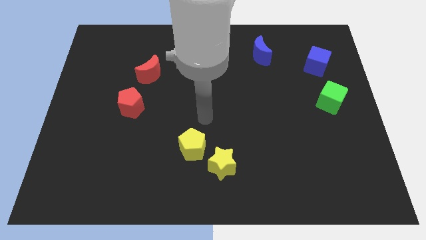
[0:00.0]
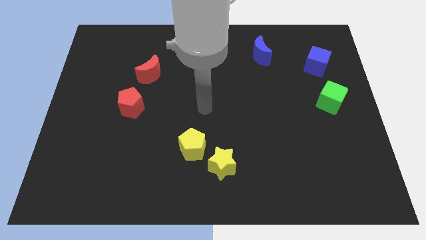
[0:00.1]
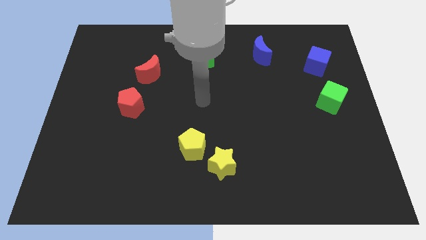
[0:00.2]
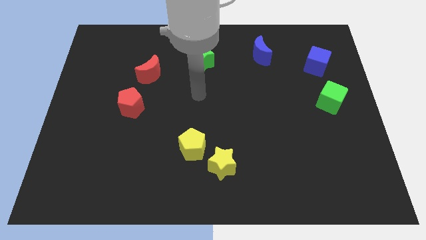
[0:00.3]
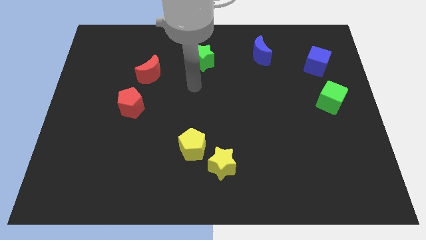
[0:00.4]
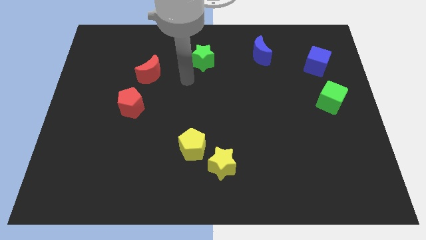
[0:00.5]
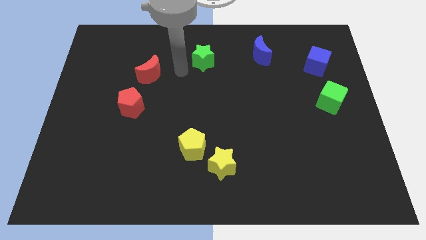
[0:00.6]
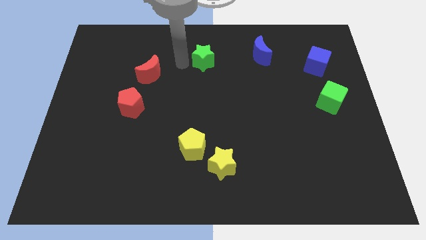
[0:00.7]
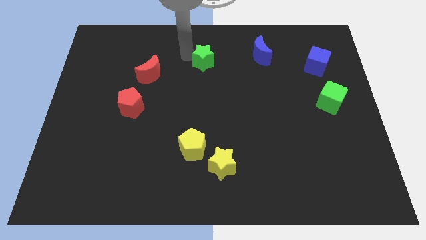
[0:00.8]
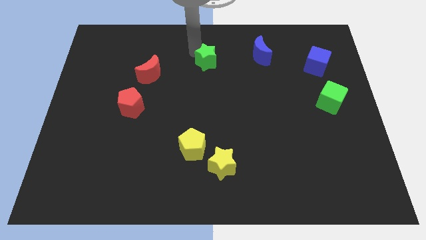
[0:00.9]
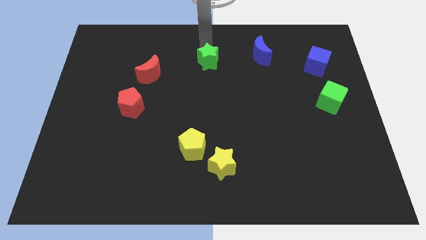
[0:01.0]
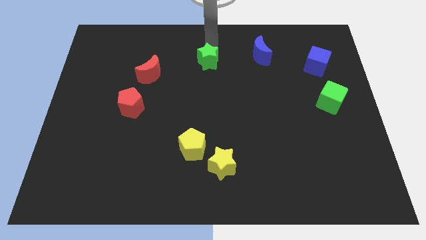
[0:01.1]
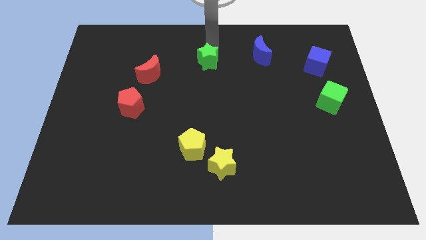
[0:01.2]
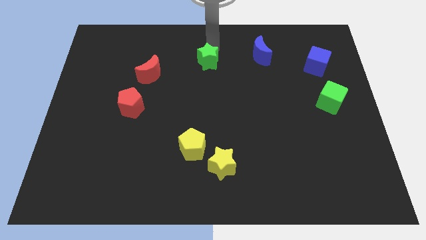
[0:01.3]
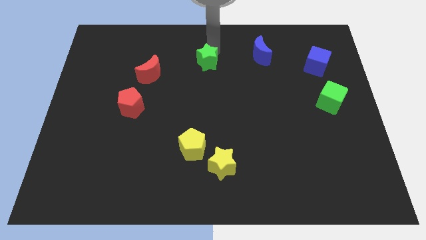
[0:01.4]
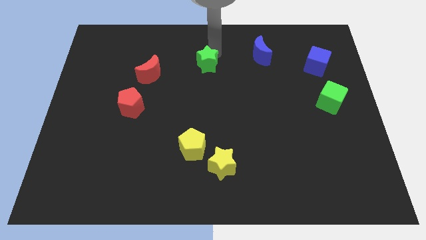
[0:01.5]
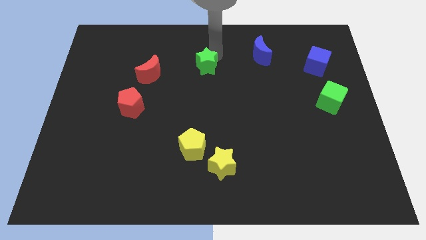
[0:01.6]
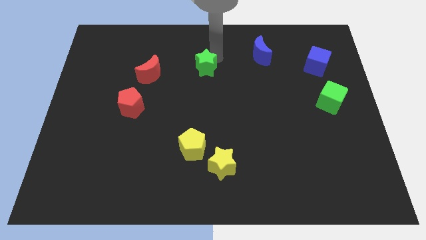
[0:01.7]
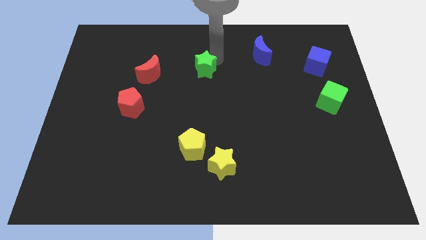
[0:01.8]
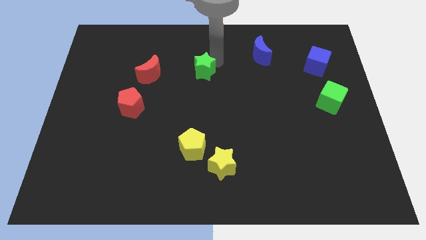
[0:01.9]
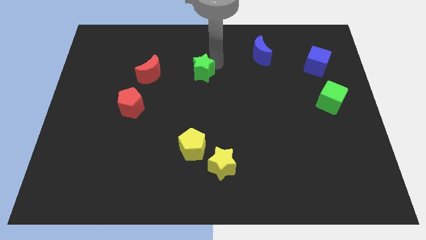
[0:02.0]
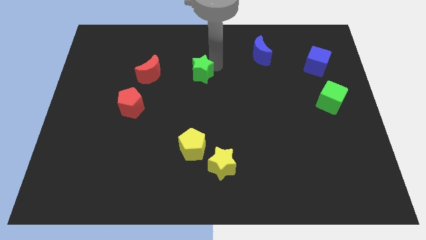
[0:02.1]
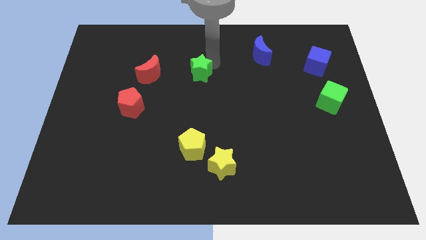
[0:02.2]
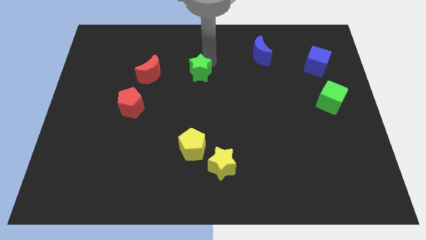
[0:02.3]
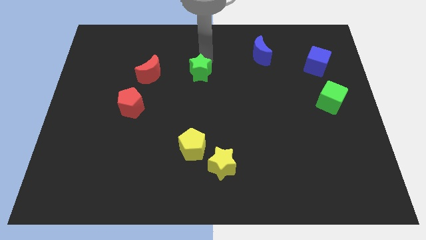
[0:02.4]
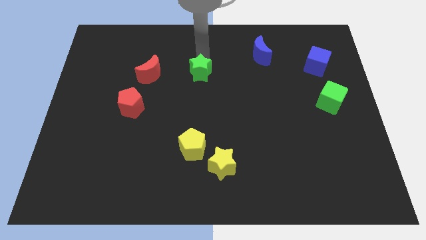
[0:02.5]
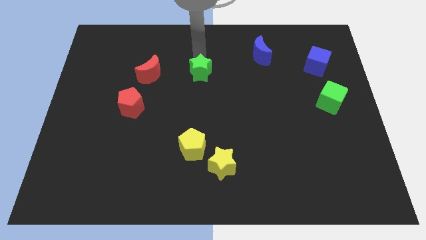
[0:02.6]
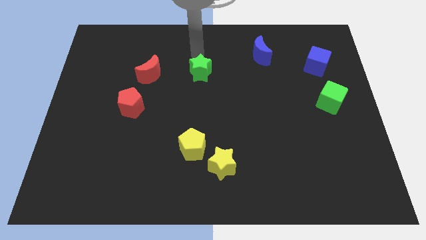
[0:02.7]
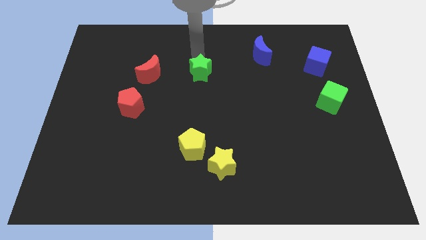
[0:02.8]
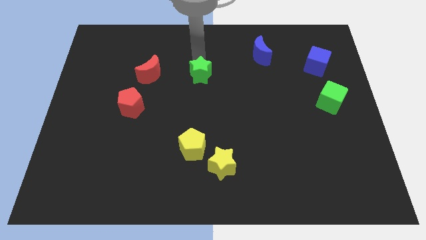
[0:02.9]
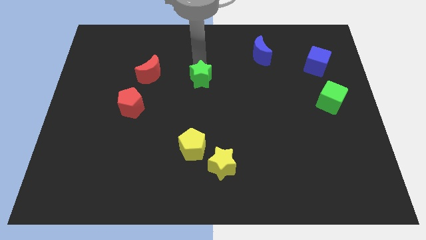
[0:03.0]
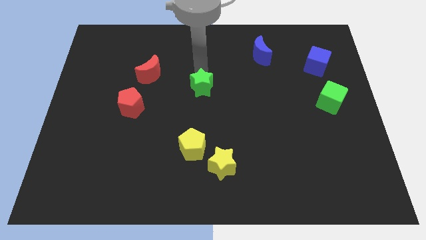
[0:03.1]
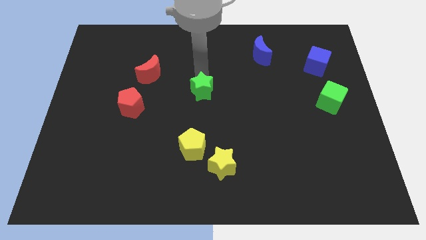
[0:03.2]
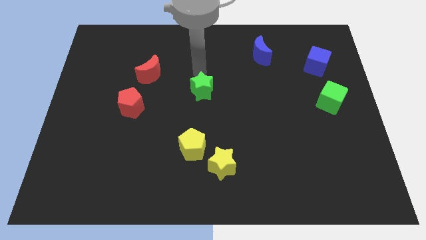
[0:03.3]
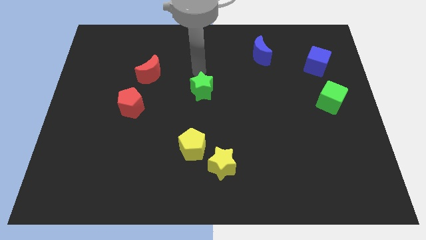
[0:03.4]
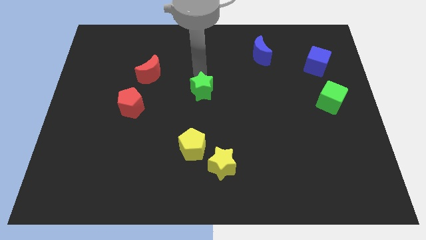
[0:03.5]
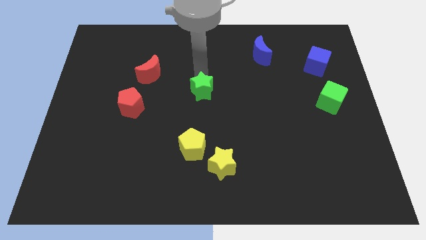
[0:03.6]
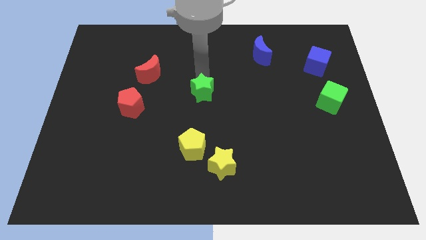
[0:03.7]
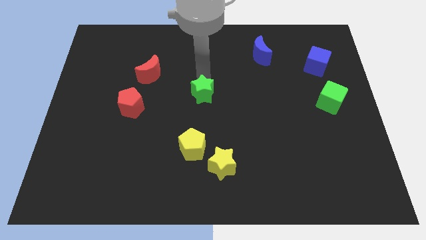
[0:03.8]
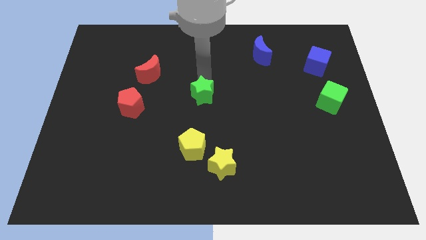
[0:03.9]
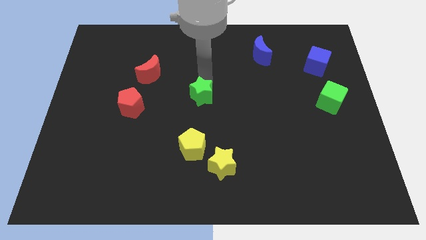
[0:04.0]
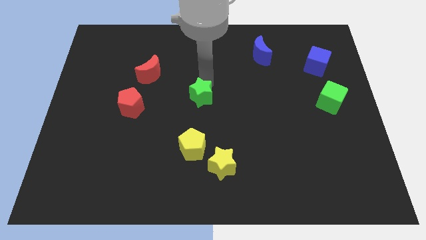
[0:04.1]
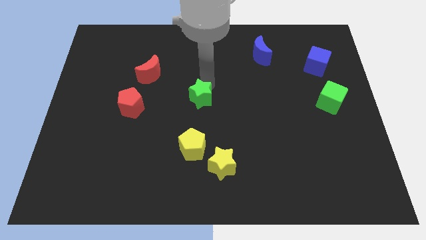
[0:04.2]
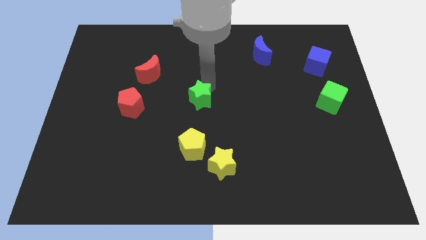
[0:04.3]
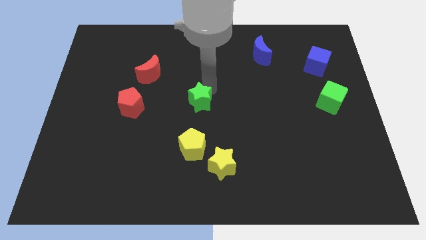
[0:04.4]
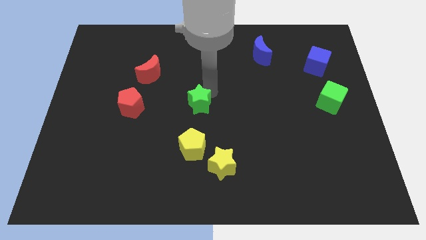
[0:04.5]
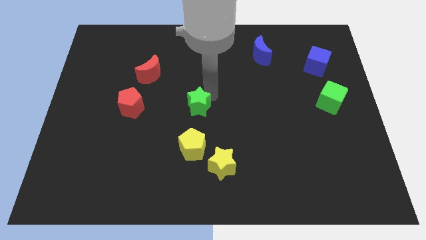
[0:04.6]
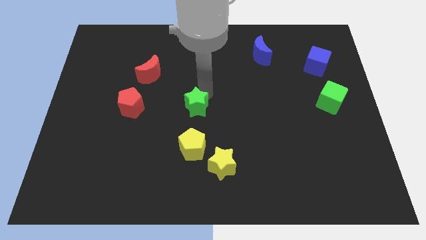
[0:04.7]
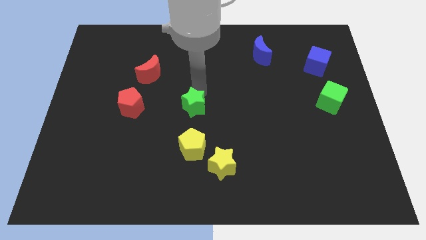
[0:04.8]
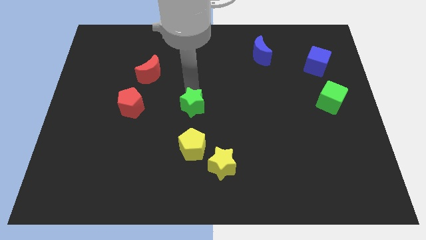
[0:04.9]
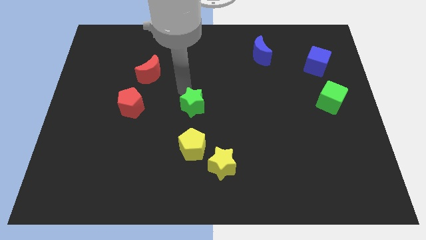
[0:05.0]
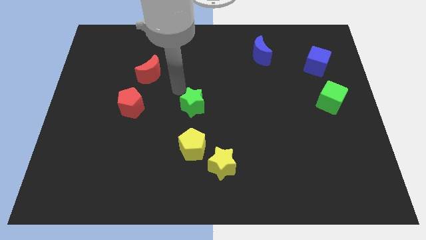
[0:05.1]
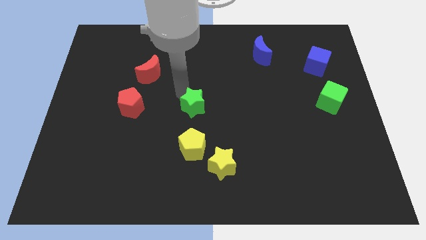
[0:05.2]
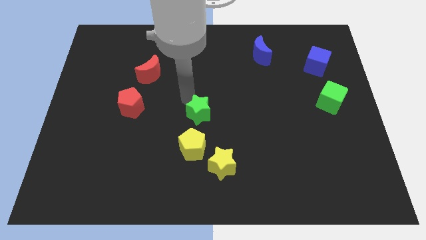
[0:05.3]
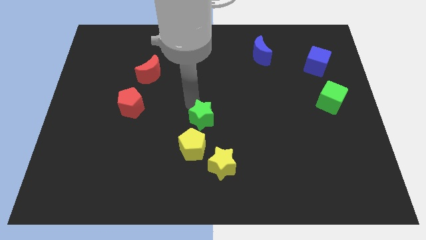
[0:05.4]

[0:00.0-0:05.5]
slide the green star to the top right side of the yellow pentagon

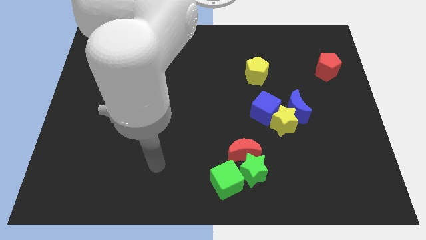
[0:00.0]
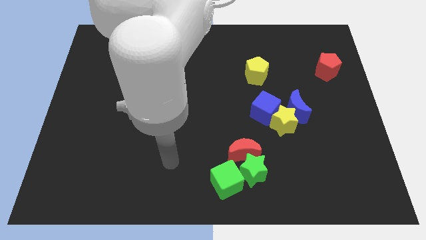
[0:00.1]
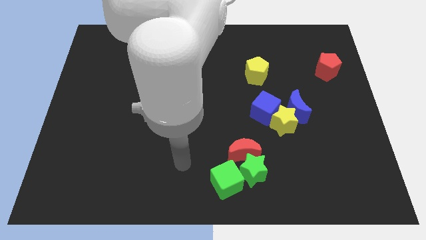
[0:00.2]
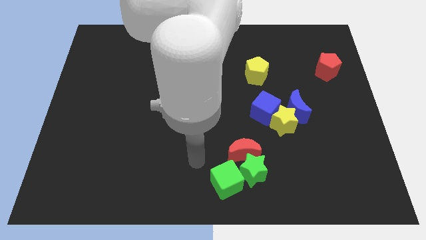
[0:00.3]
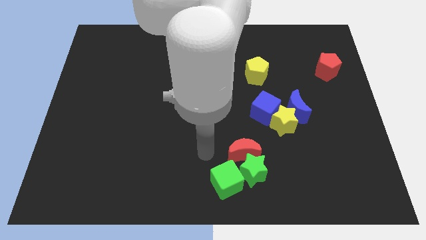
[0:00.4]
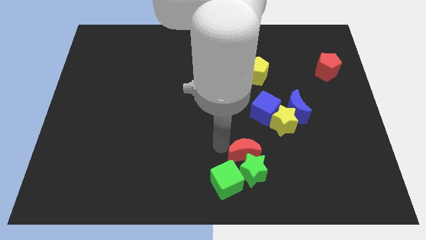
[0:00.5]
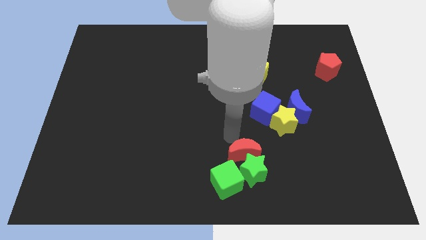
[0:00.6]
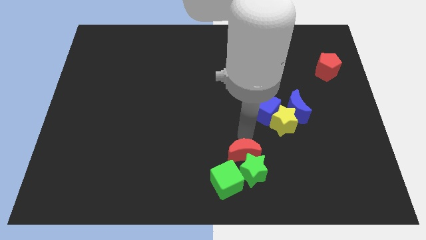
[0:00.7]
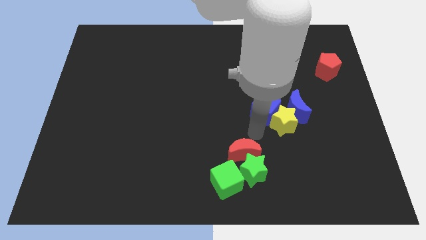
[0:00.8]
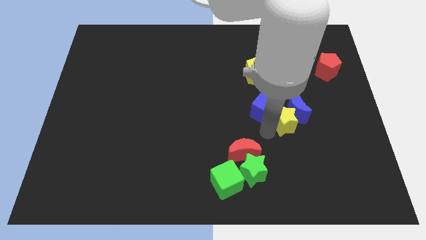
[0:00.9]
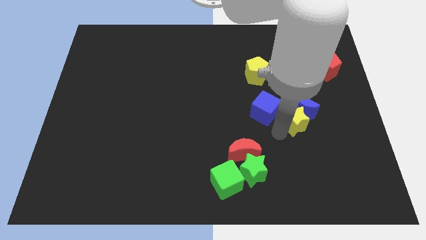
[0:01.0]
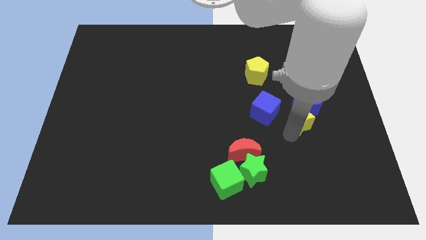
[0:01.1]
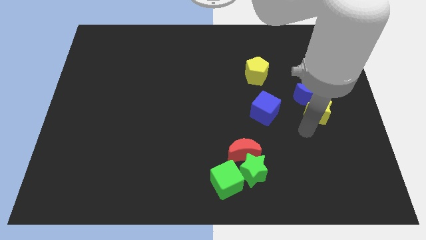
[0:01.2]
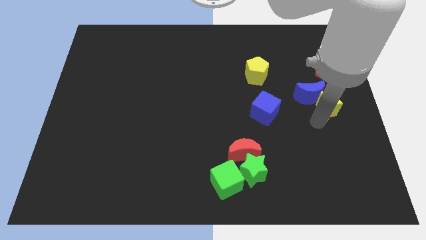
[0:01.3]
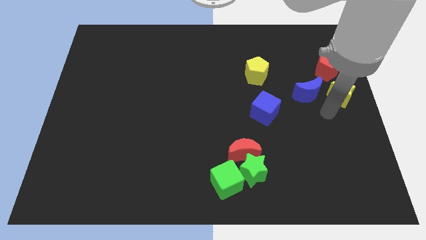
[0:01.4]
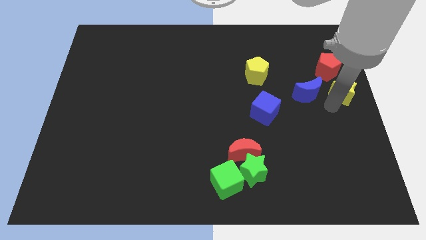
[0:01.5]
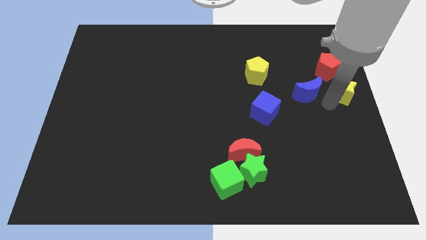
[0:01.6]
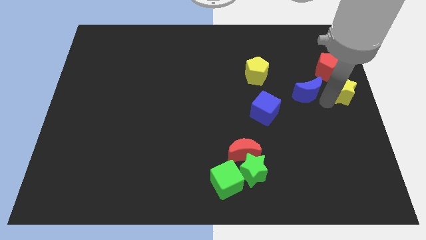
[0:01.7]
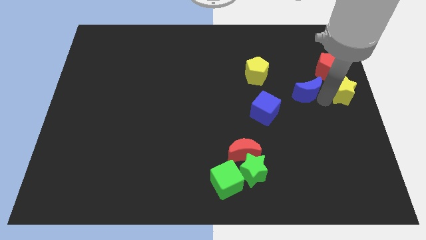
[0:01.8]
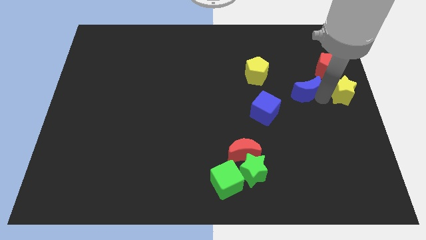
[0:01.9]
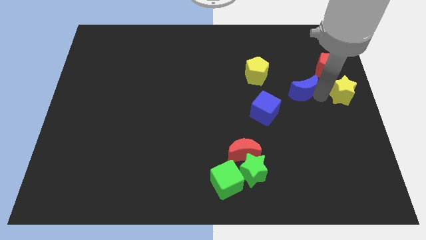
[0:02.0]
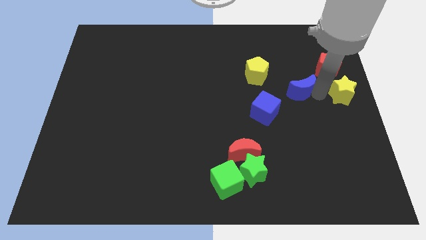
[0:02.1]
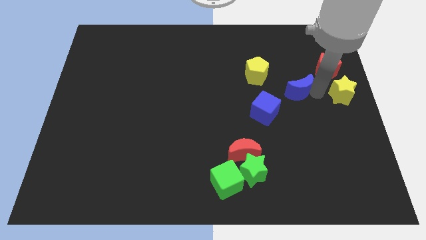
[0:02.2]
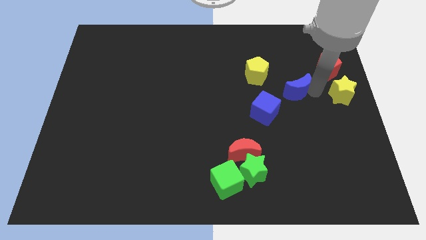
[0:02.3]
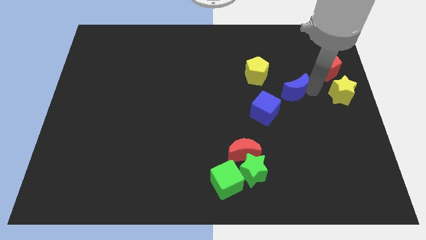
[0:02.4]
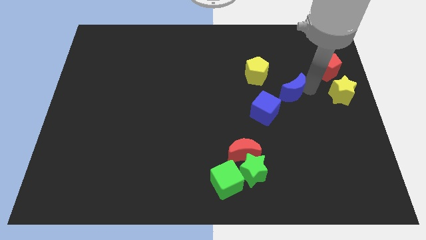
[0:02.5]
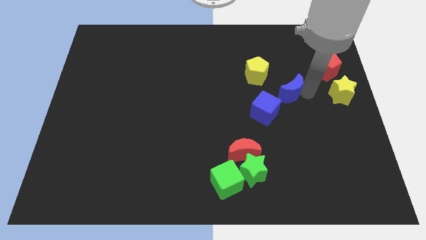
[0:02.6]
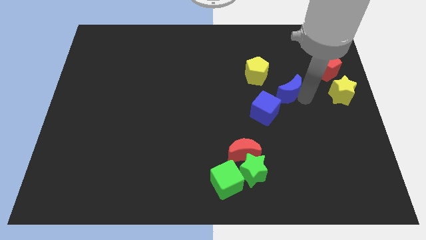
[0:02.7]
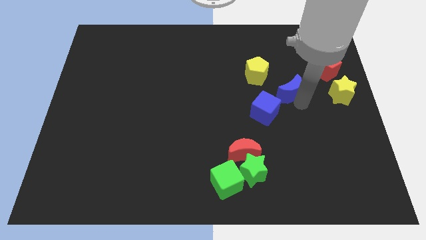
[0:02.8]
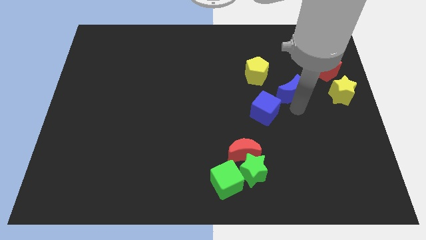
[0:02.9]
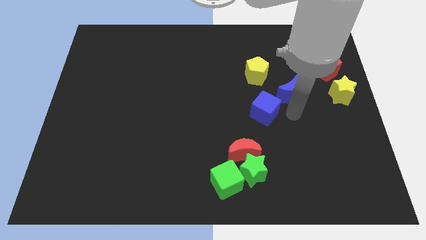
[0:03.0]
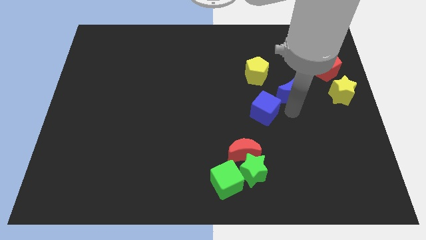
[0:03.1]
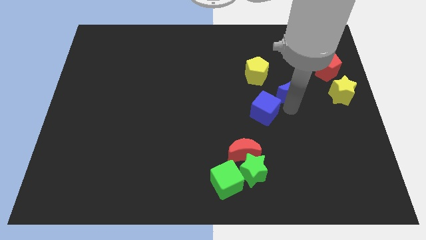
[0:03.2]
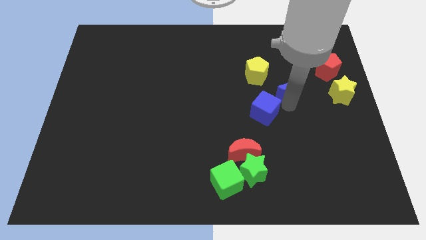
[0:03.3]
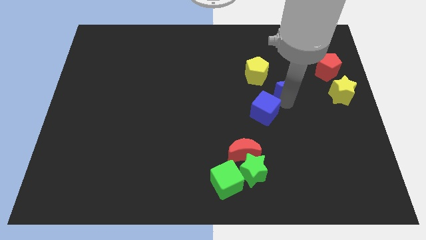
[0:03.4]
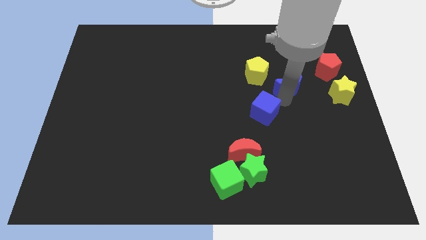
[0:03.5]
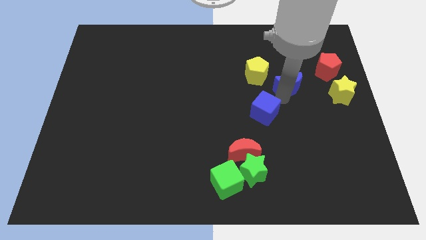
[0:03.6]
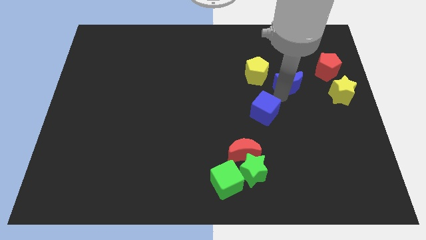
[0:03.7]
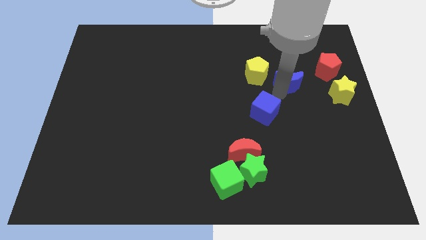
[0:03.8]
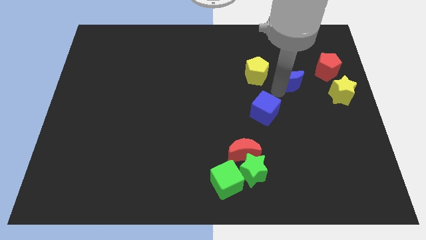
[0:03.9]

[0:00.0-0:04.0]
slide the blue moon to the left side of the red pentagon
